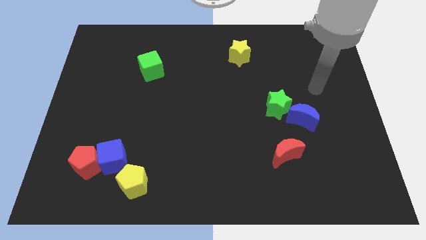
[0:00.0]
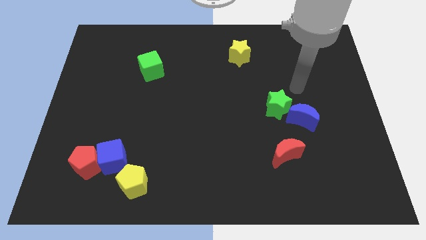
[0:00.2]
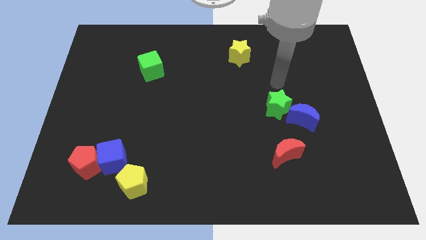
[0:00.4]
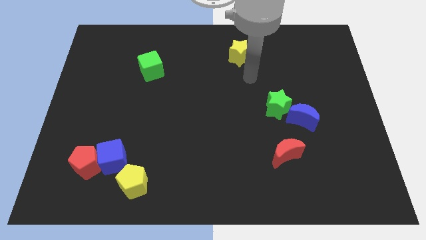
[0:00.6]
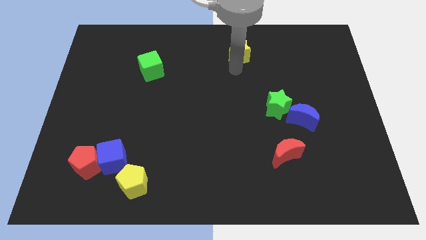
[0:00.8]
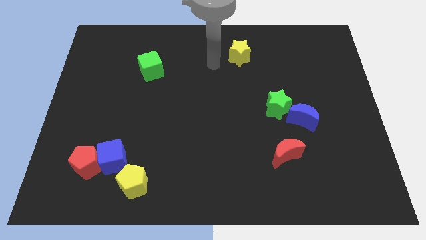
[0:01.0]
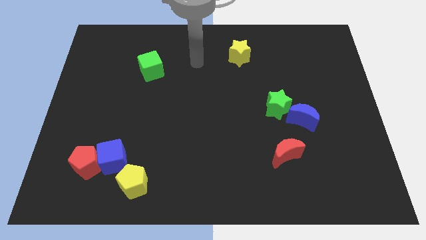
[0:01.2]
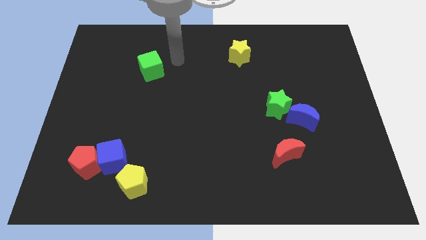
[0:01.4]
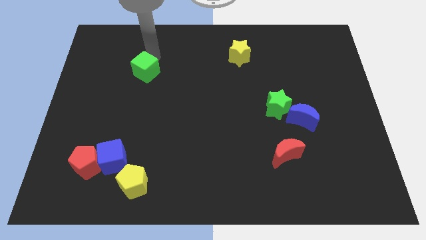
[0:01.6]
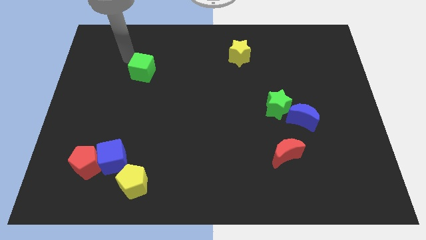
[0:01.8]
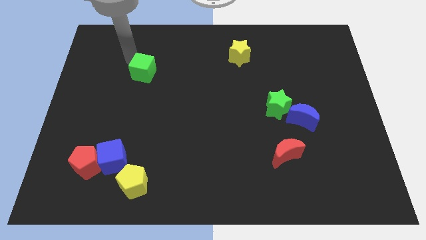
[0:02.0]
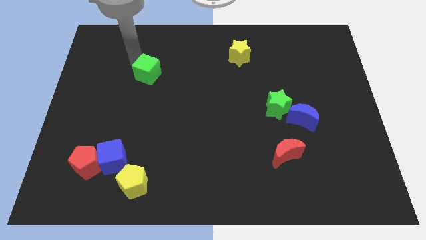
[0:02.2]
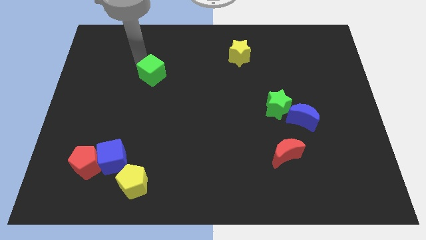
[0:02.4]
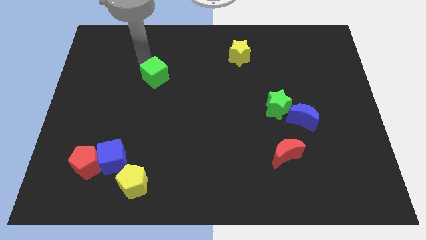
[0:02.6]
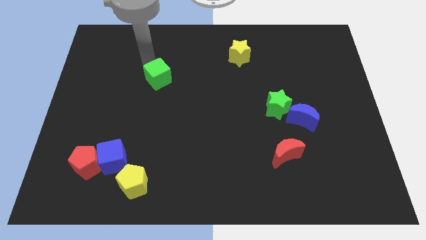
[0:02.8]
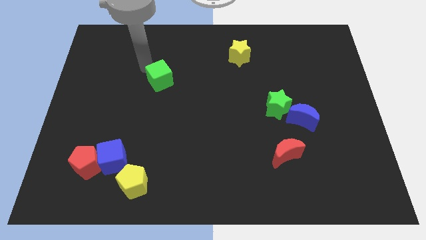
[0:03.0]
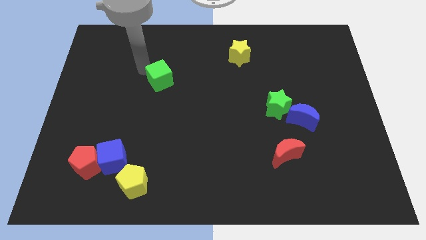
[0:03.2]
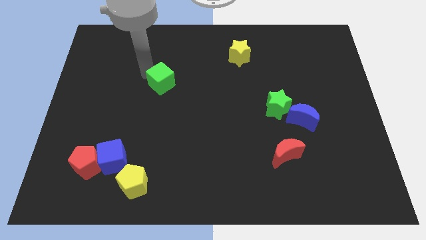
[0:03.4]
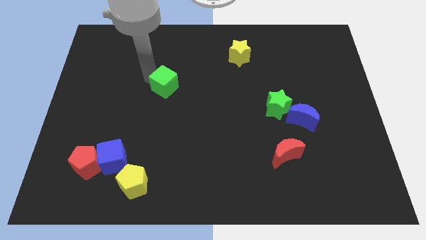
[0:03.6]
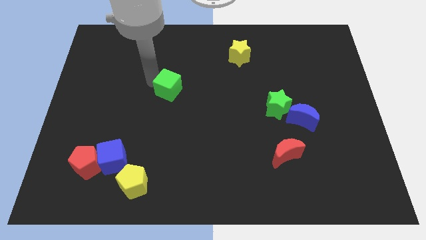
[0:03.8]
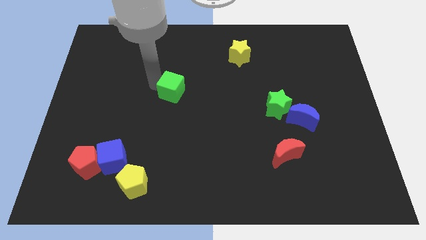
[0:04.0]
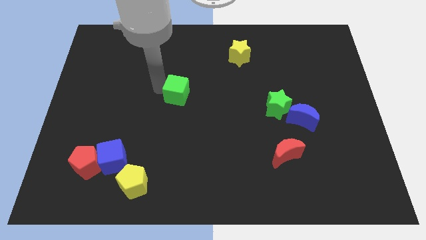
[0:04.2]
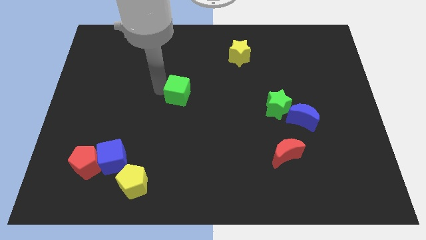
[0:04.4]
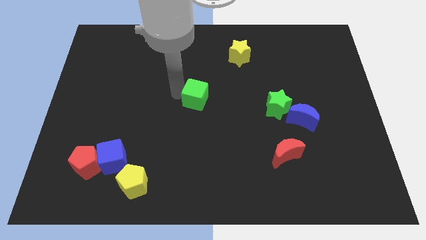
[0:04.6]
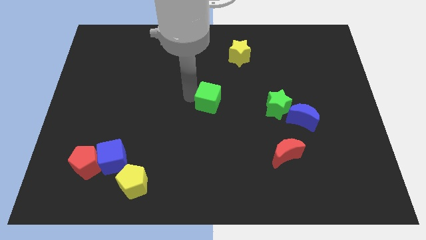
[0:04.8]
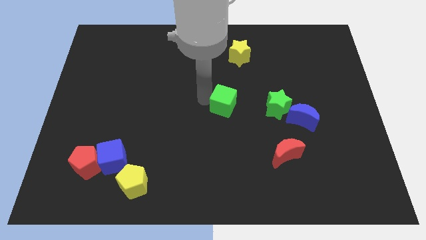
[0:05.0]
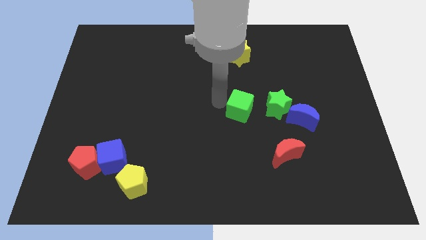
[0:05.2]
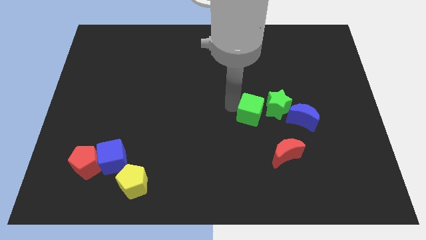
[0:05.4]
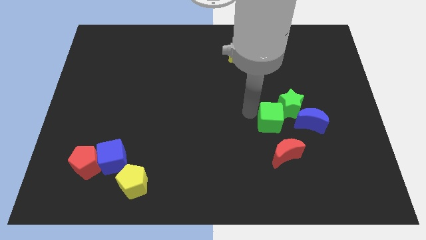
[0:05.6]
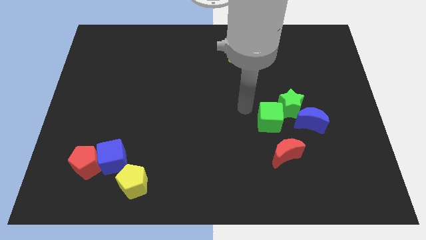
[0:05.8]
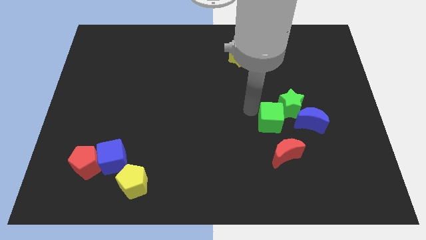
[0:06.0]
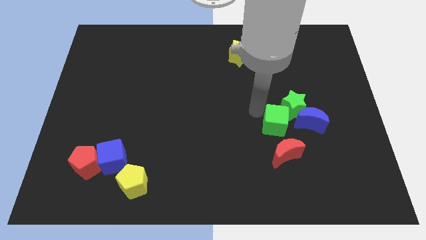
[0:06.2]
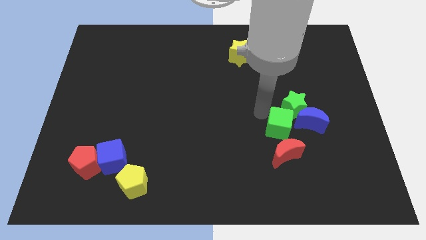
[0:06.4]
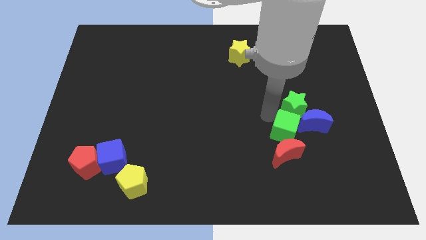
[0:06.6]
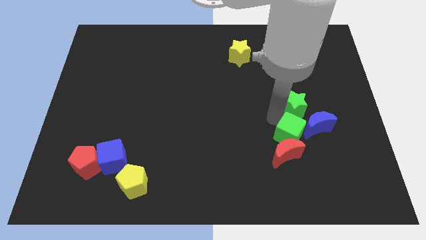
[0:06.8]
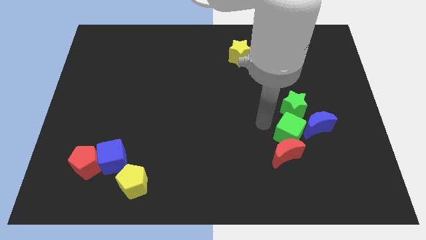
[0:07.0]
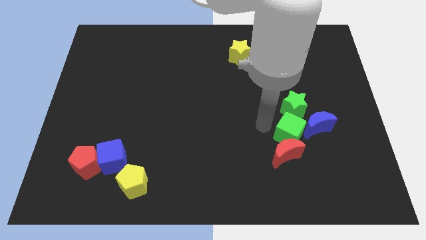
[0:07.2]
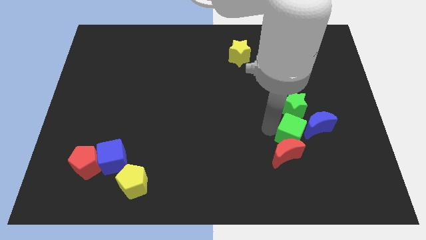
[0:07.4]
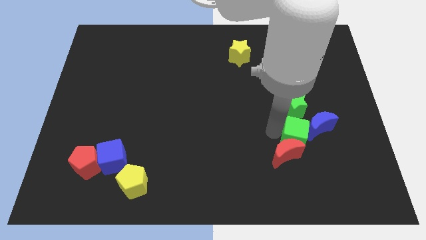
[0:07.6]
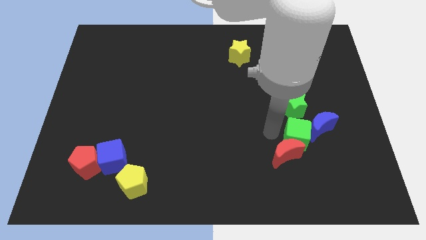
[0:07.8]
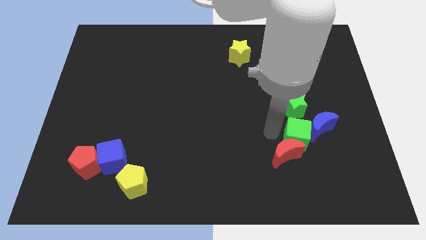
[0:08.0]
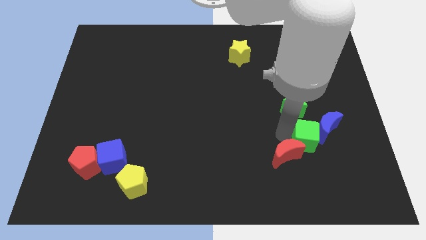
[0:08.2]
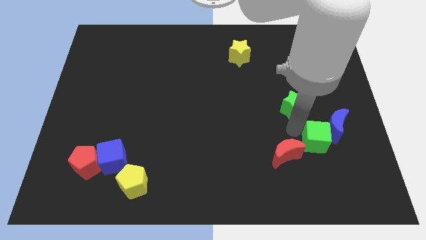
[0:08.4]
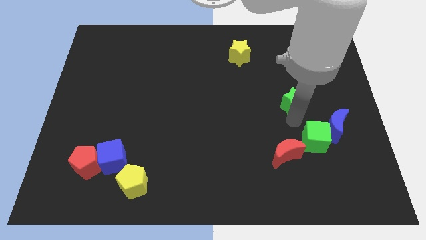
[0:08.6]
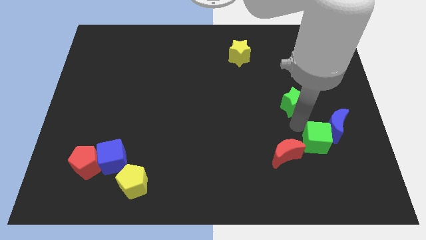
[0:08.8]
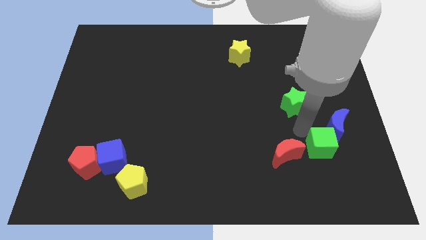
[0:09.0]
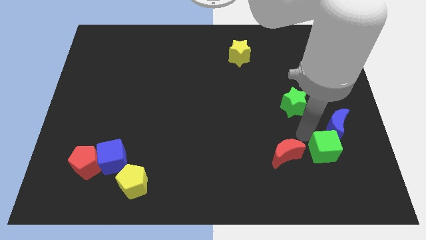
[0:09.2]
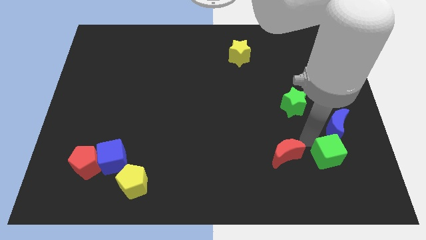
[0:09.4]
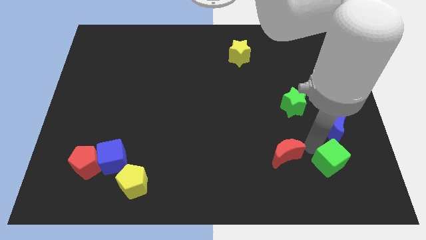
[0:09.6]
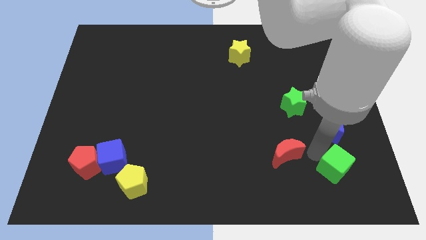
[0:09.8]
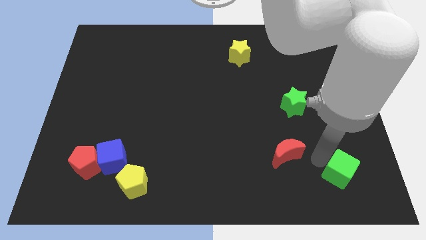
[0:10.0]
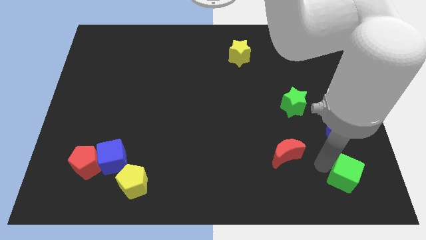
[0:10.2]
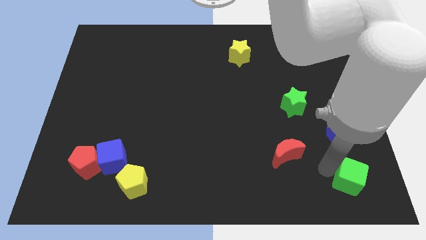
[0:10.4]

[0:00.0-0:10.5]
push the green cube to the bottom right

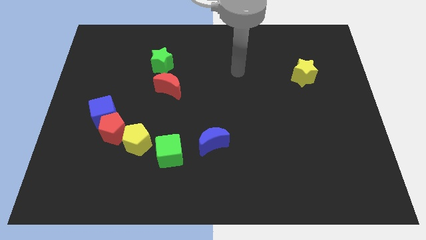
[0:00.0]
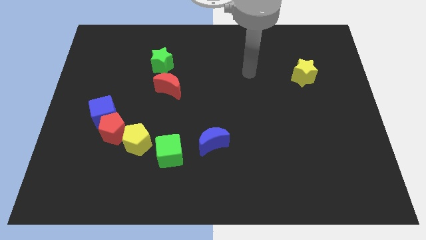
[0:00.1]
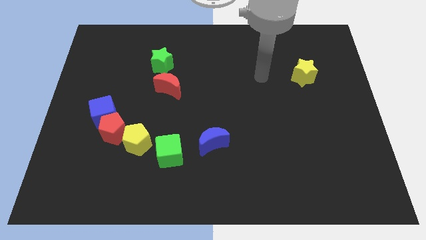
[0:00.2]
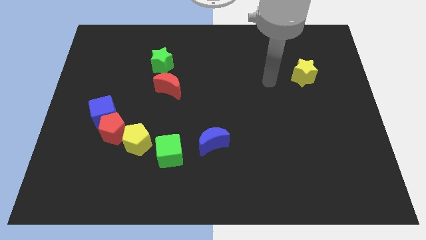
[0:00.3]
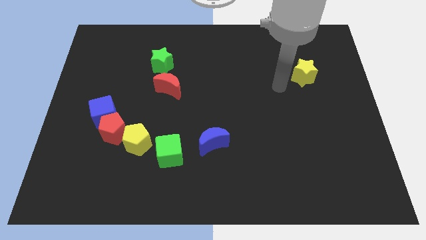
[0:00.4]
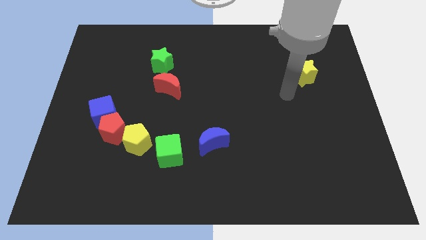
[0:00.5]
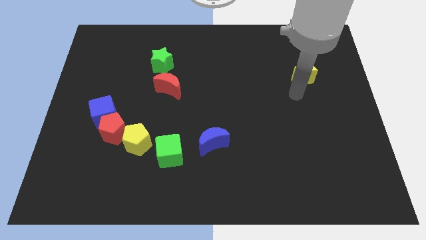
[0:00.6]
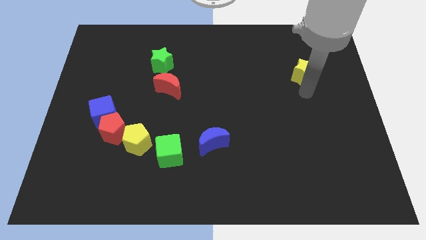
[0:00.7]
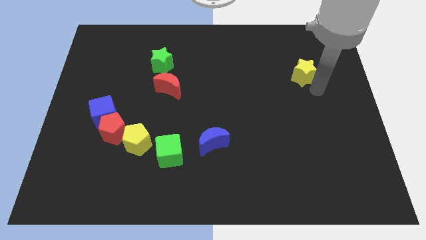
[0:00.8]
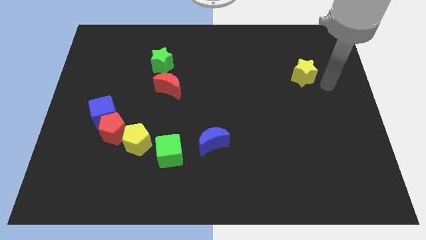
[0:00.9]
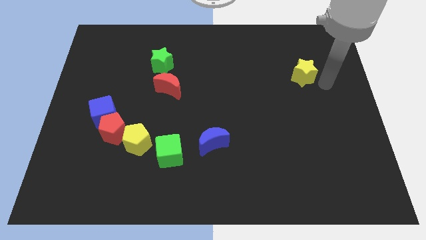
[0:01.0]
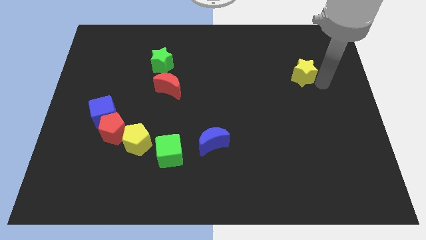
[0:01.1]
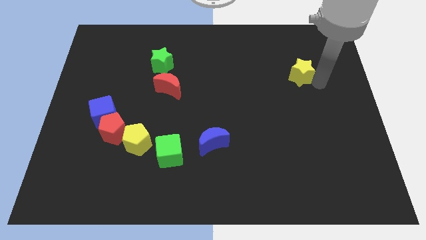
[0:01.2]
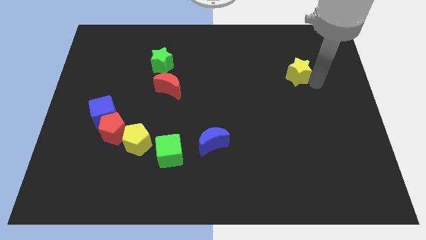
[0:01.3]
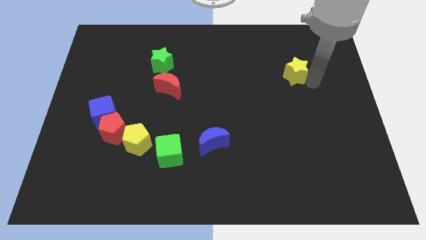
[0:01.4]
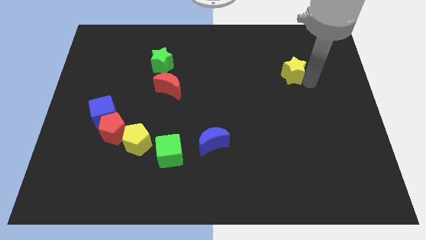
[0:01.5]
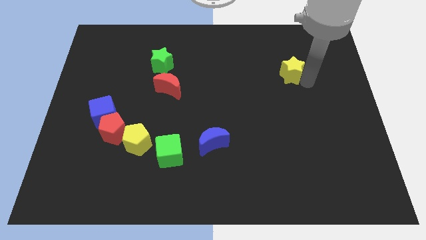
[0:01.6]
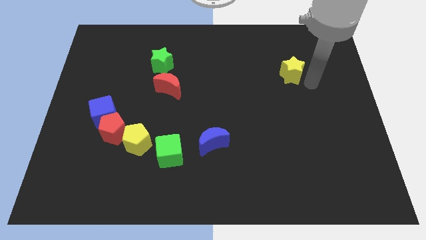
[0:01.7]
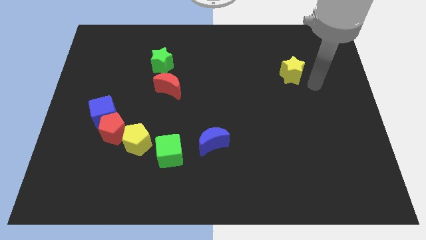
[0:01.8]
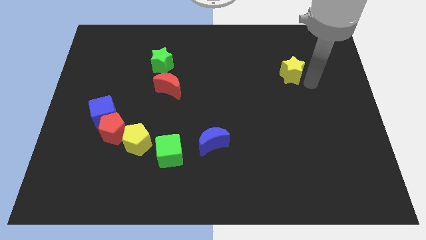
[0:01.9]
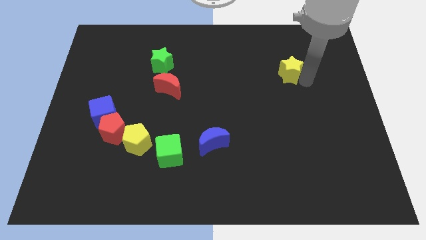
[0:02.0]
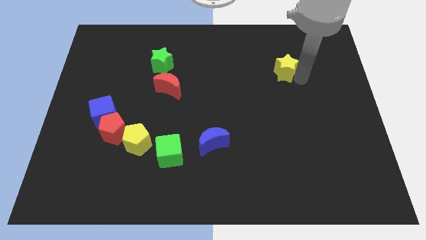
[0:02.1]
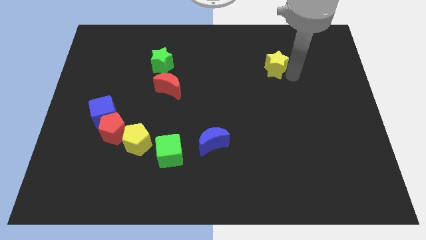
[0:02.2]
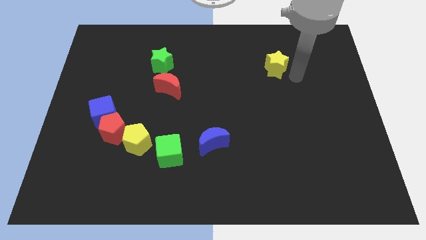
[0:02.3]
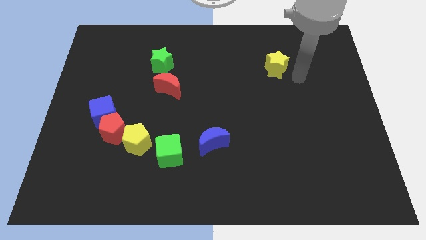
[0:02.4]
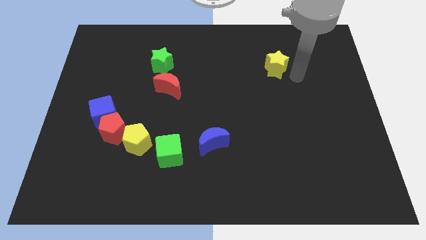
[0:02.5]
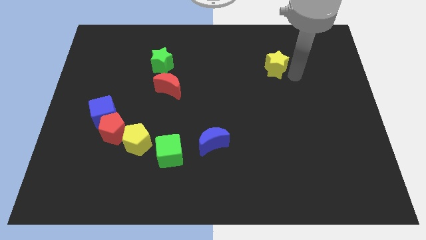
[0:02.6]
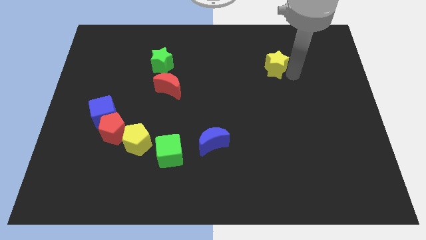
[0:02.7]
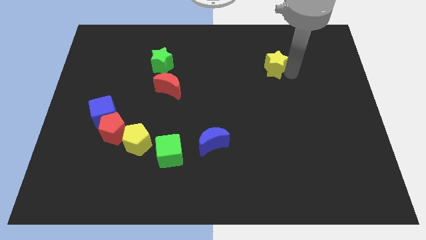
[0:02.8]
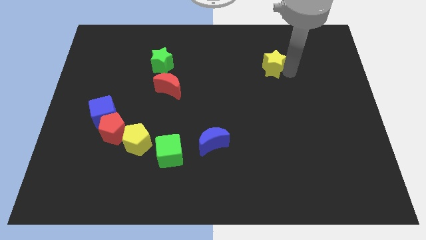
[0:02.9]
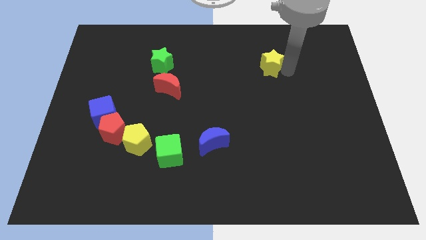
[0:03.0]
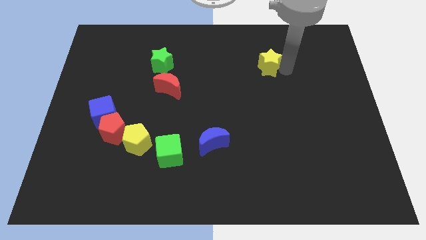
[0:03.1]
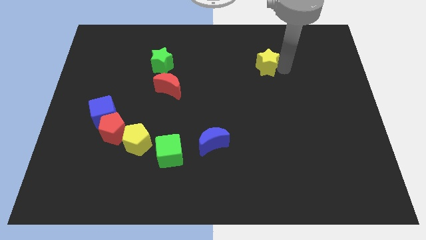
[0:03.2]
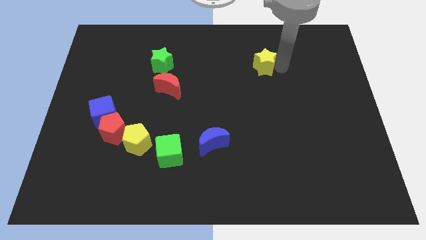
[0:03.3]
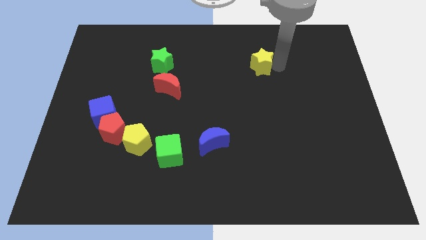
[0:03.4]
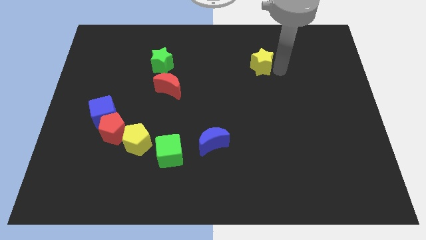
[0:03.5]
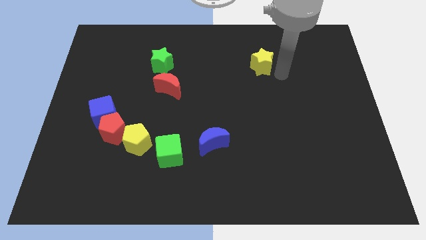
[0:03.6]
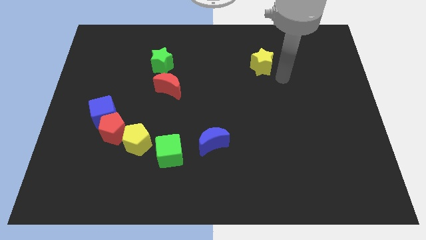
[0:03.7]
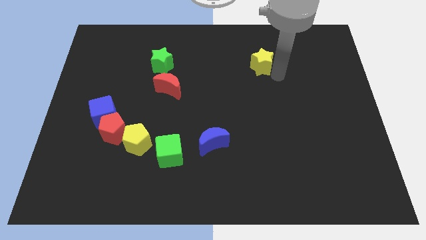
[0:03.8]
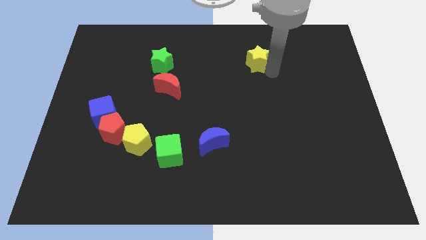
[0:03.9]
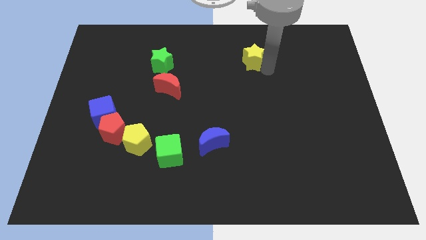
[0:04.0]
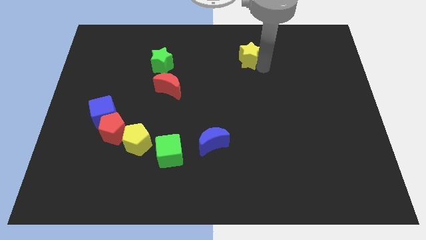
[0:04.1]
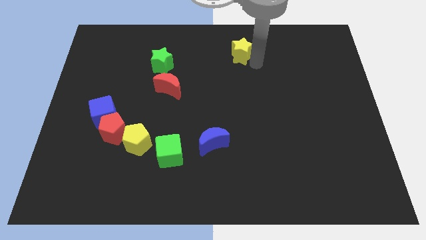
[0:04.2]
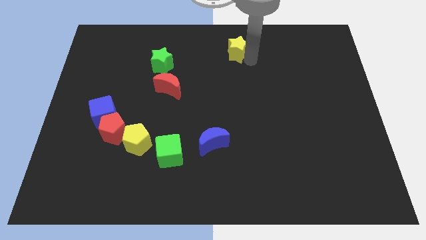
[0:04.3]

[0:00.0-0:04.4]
put the yellow star to the top
